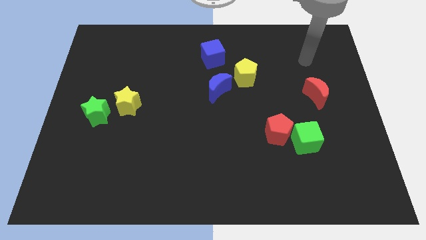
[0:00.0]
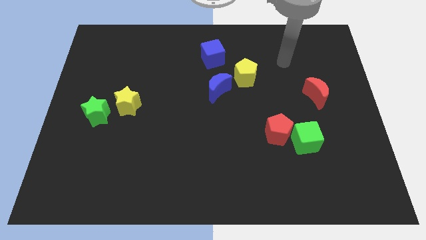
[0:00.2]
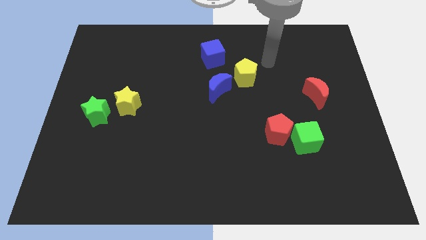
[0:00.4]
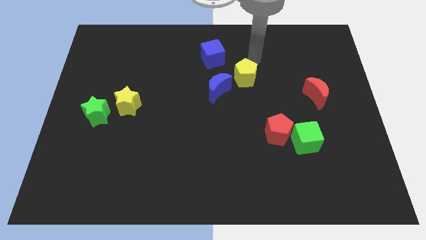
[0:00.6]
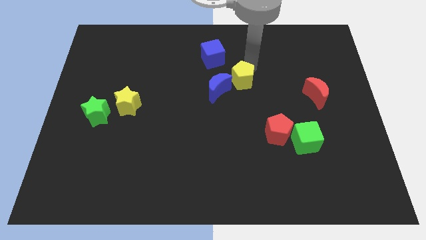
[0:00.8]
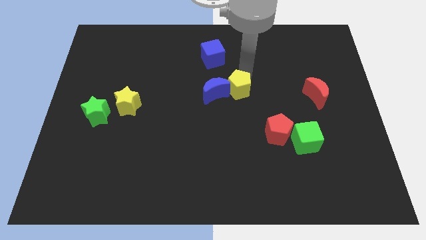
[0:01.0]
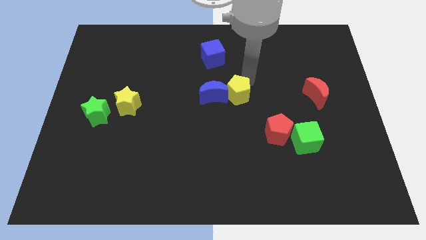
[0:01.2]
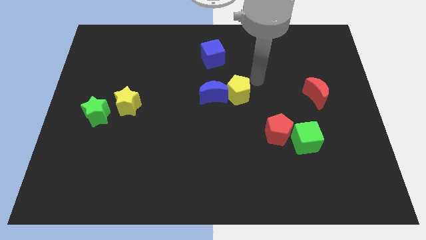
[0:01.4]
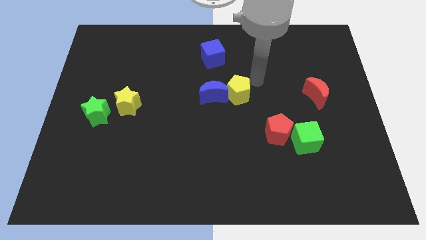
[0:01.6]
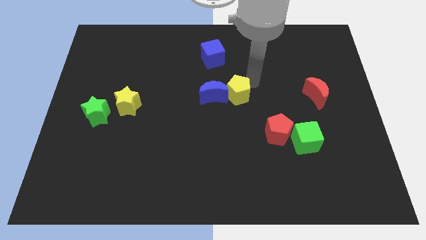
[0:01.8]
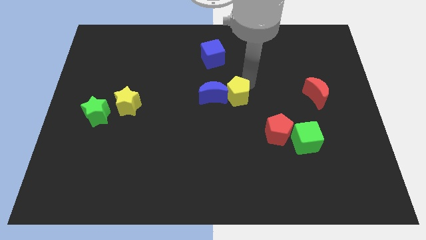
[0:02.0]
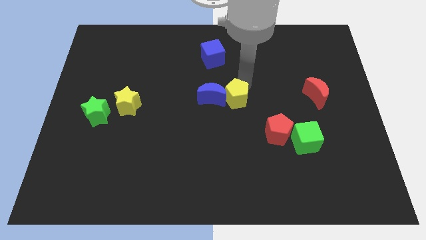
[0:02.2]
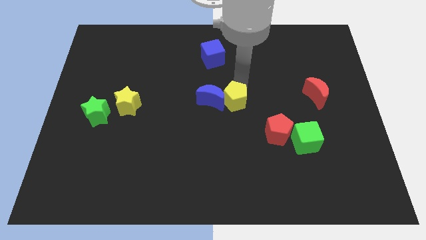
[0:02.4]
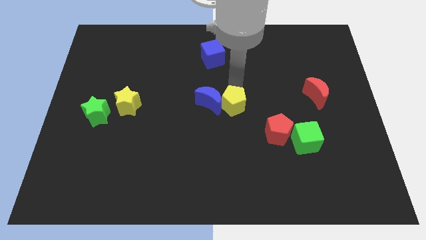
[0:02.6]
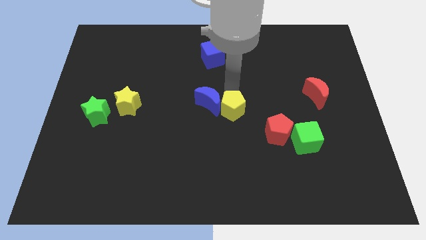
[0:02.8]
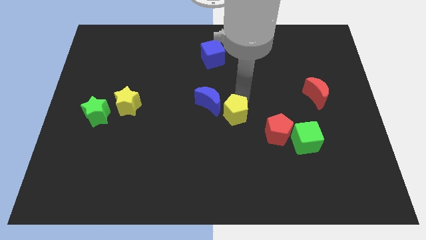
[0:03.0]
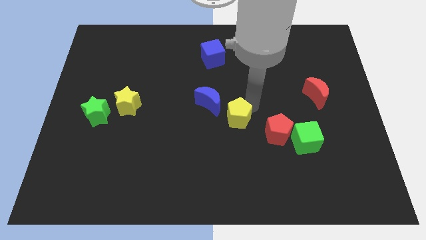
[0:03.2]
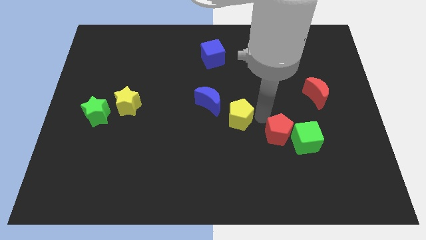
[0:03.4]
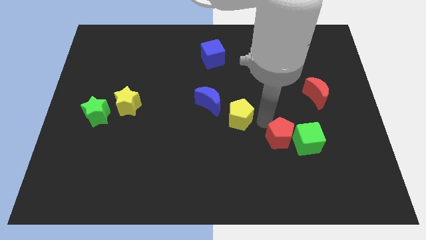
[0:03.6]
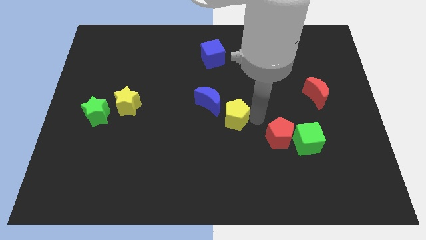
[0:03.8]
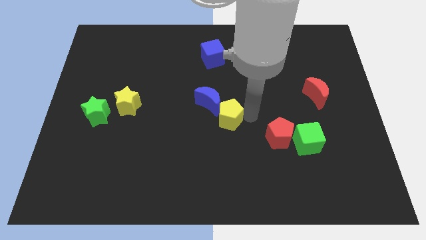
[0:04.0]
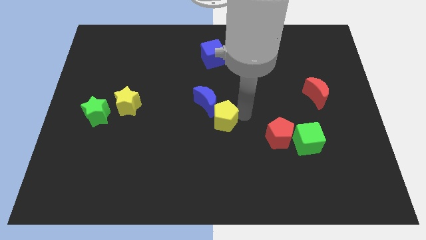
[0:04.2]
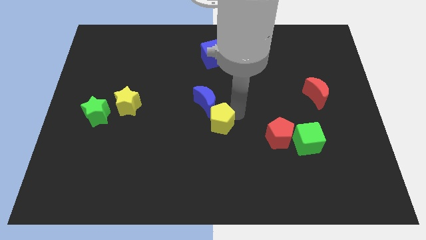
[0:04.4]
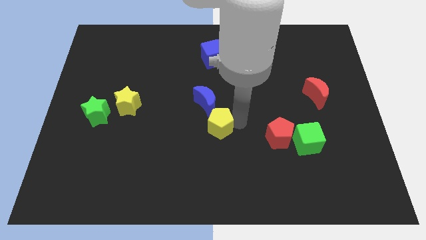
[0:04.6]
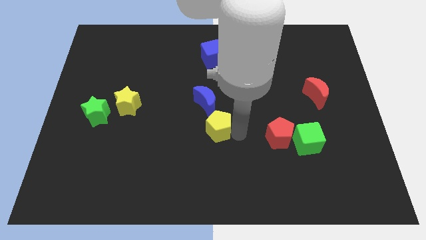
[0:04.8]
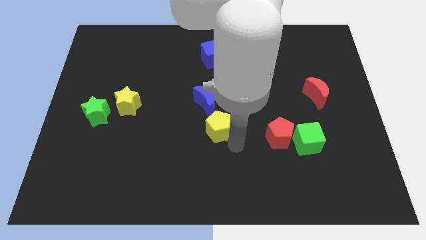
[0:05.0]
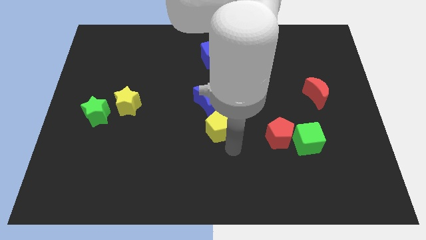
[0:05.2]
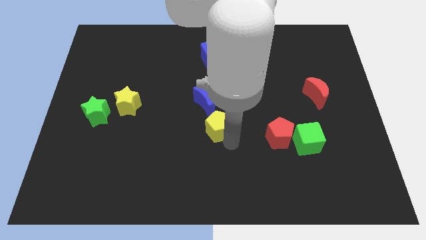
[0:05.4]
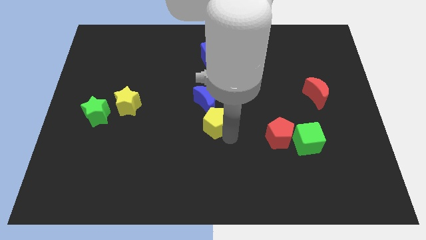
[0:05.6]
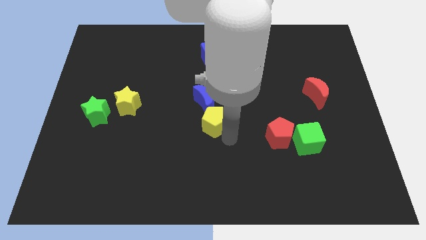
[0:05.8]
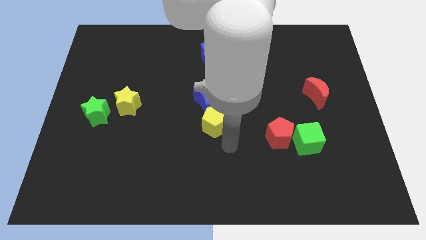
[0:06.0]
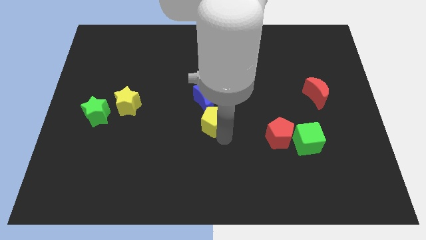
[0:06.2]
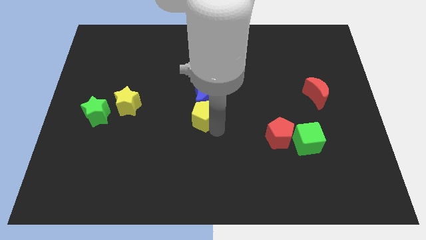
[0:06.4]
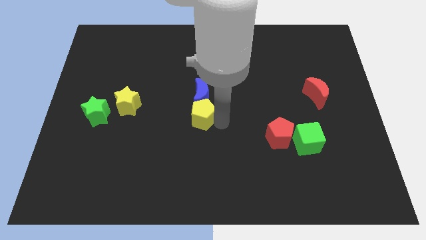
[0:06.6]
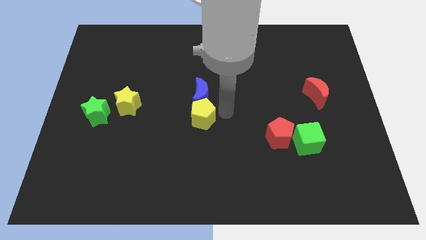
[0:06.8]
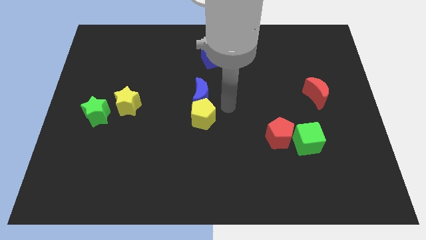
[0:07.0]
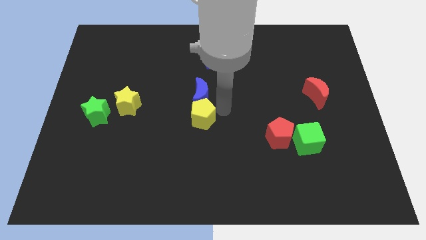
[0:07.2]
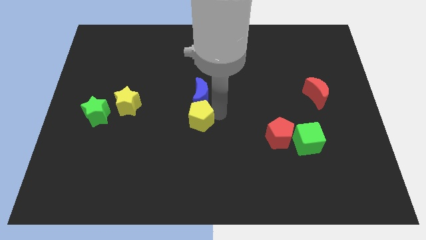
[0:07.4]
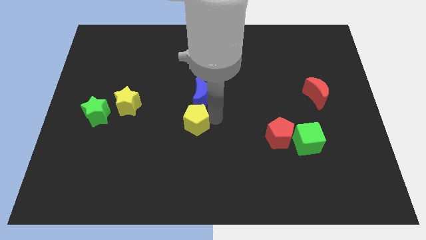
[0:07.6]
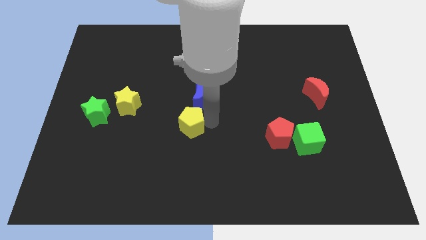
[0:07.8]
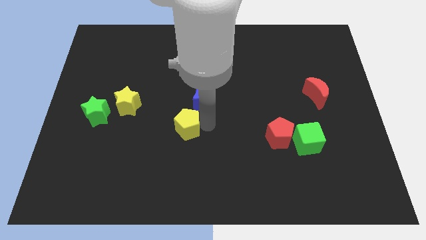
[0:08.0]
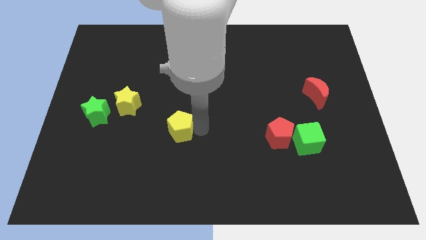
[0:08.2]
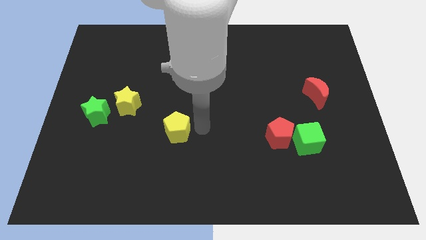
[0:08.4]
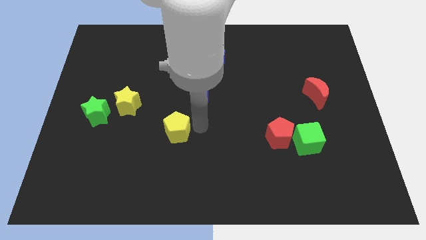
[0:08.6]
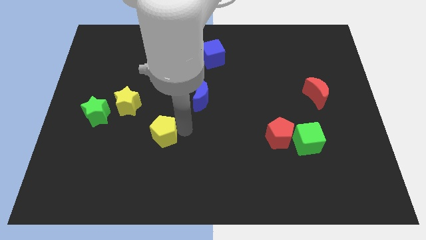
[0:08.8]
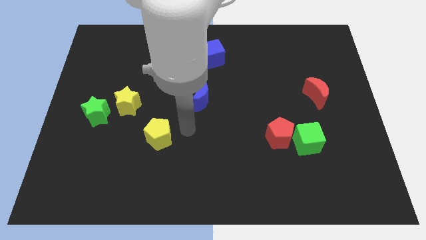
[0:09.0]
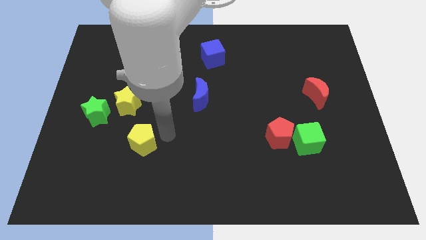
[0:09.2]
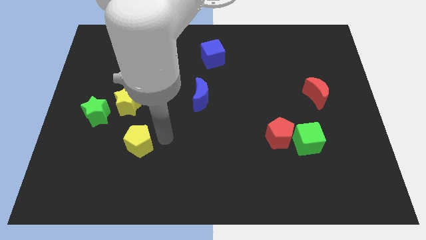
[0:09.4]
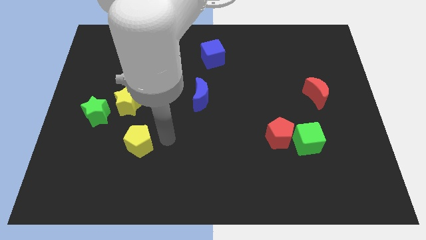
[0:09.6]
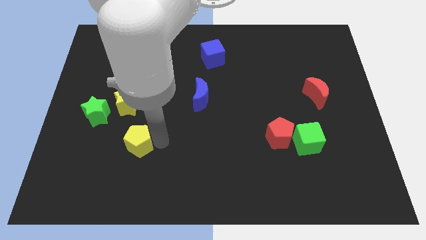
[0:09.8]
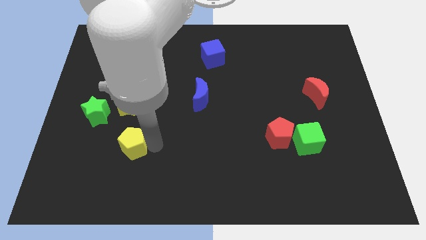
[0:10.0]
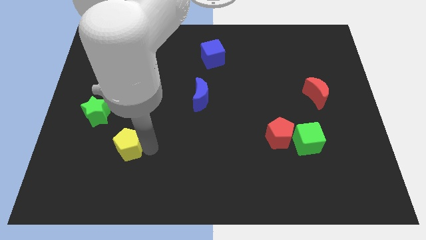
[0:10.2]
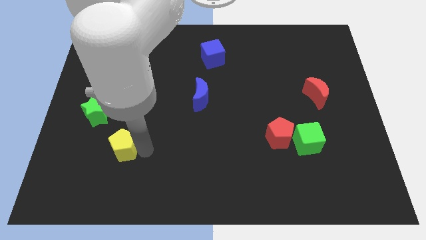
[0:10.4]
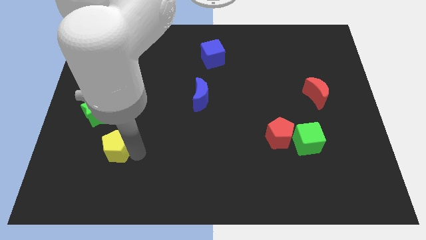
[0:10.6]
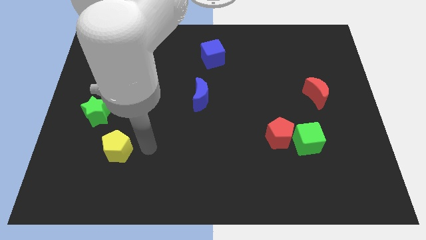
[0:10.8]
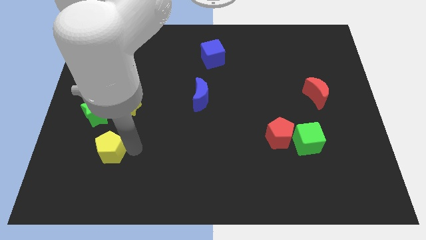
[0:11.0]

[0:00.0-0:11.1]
put the yellow pentagon below the green star

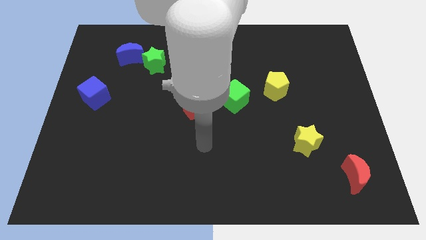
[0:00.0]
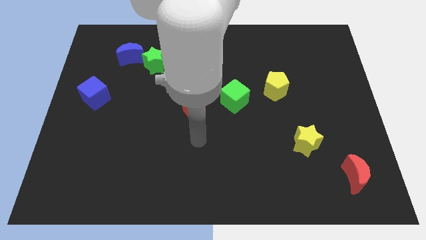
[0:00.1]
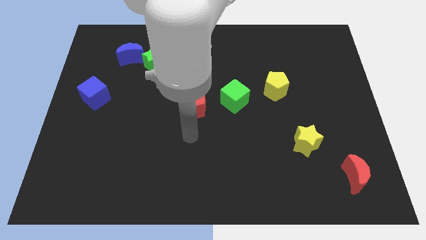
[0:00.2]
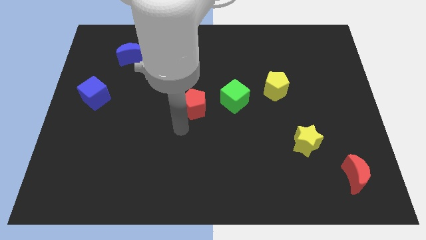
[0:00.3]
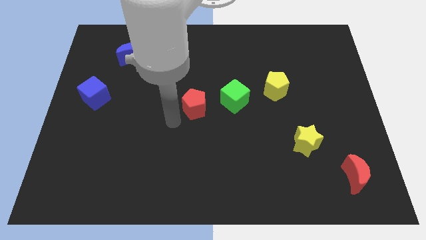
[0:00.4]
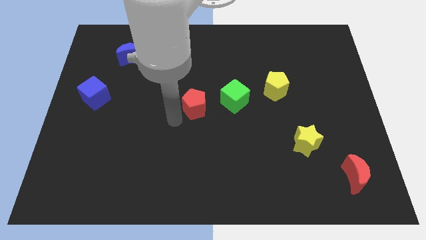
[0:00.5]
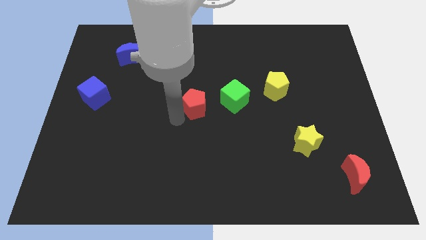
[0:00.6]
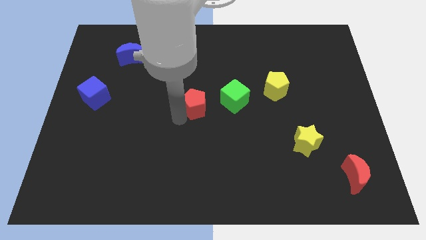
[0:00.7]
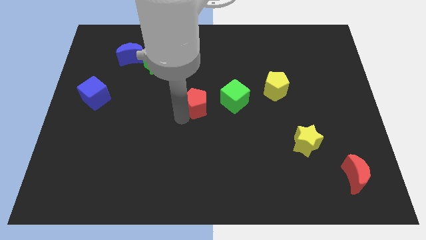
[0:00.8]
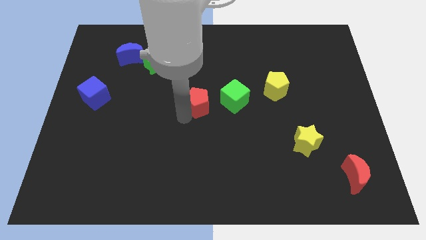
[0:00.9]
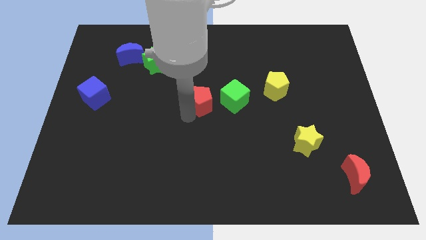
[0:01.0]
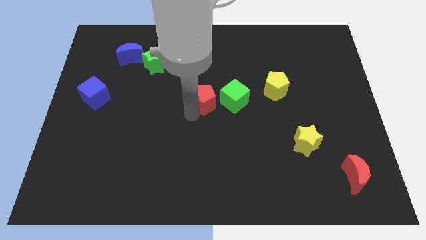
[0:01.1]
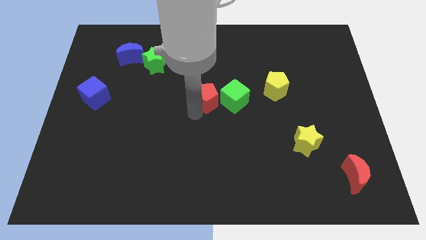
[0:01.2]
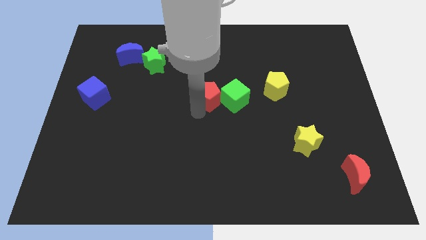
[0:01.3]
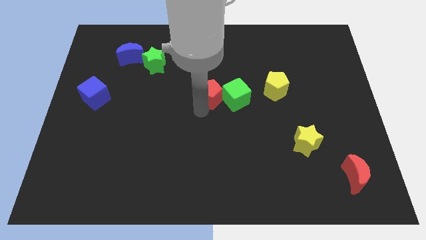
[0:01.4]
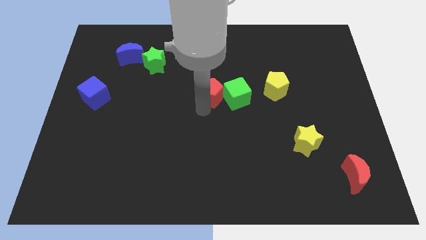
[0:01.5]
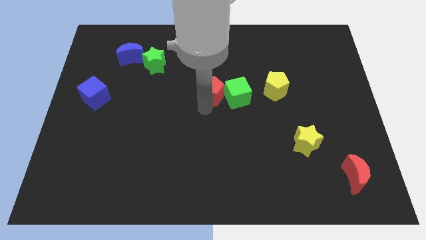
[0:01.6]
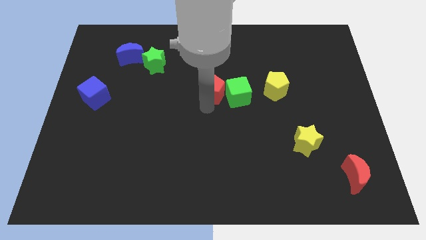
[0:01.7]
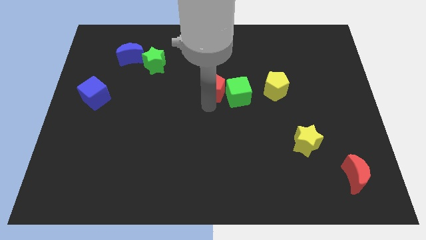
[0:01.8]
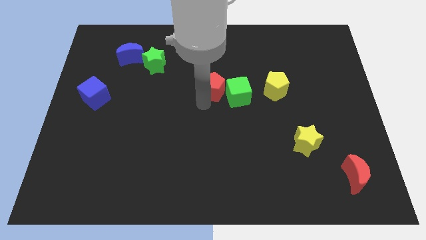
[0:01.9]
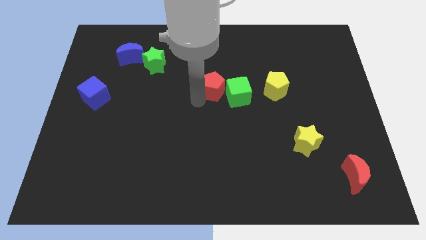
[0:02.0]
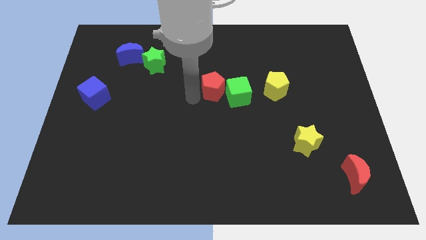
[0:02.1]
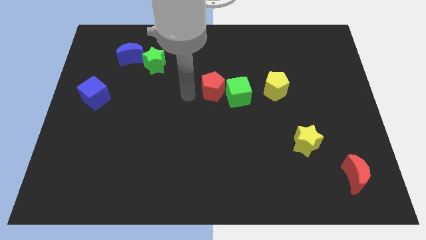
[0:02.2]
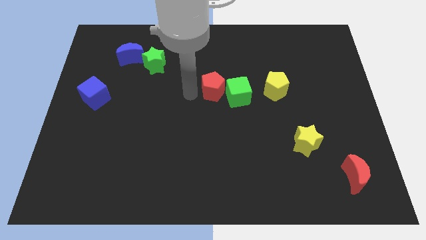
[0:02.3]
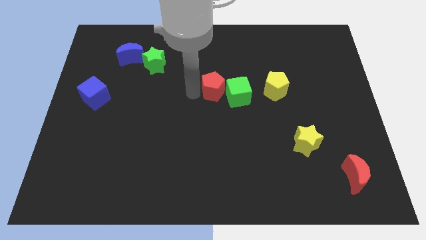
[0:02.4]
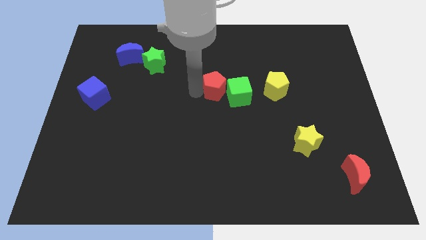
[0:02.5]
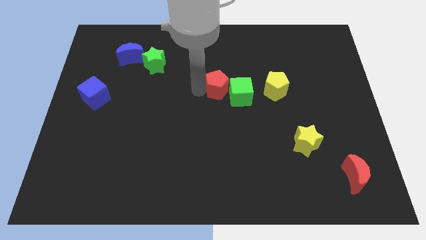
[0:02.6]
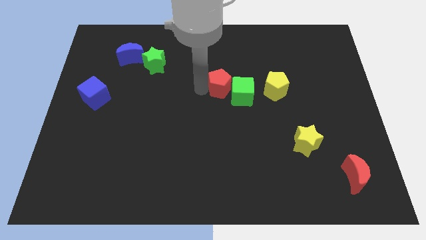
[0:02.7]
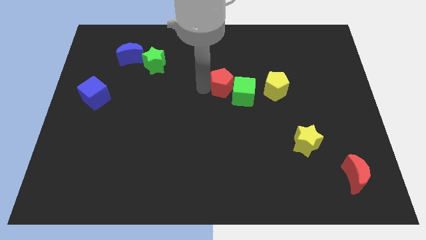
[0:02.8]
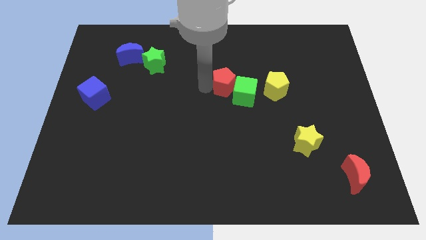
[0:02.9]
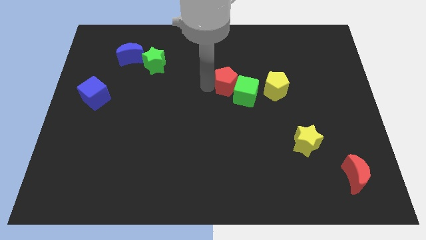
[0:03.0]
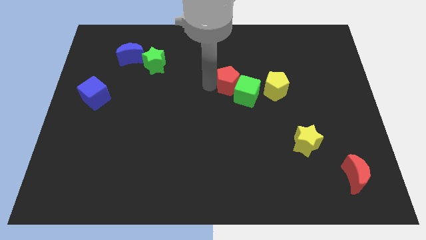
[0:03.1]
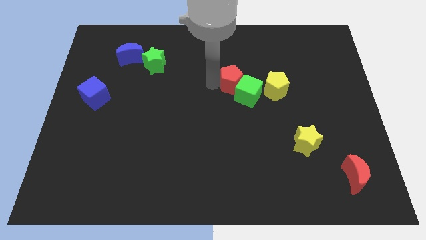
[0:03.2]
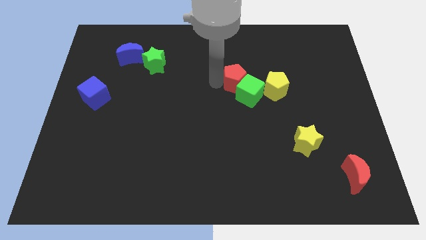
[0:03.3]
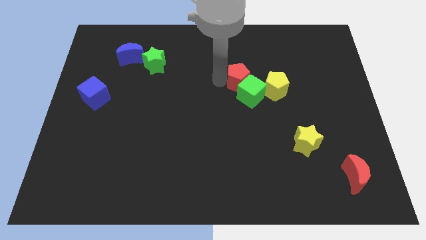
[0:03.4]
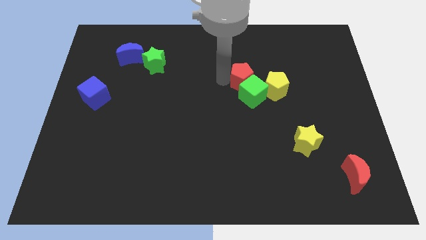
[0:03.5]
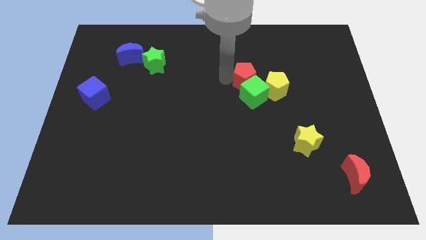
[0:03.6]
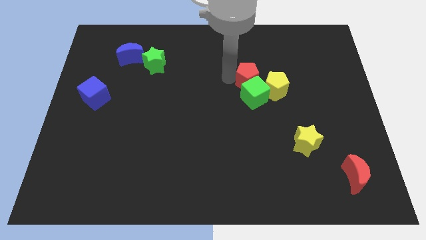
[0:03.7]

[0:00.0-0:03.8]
push the red pentagon to the top right side of the green cube
